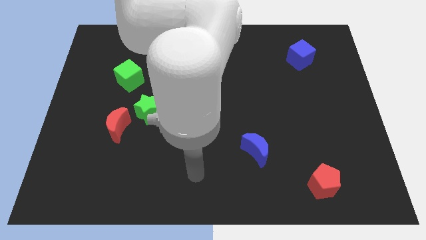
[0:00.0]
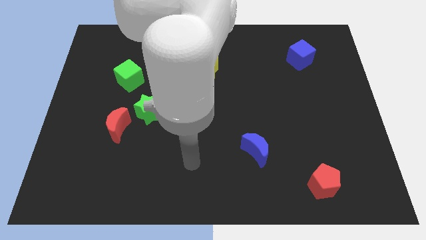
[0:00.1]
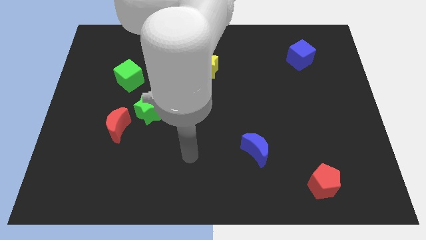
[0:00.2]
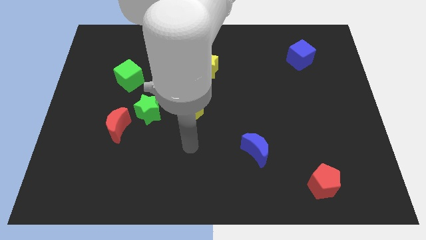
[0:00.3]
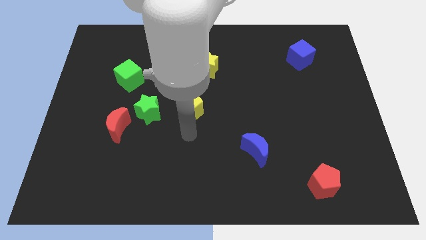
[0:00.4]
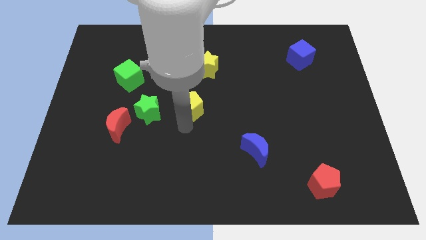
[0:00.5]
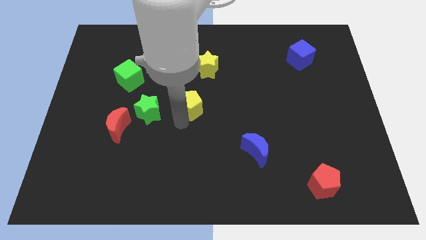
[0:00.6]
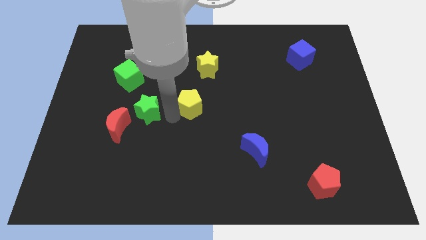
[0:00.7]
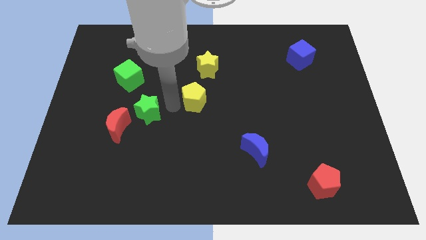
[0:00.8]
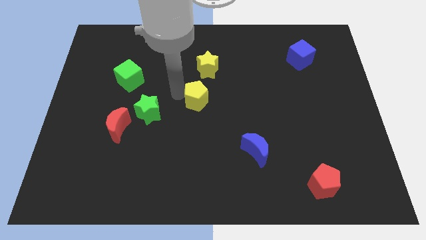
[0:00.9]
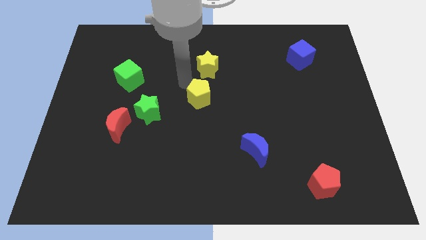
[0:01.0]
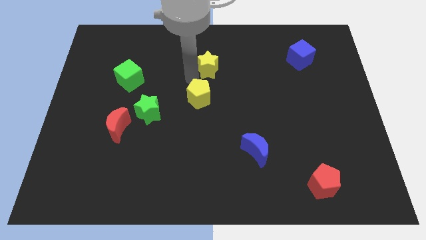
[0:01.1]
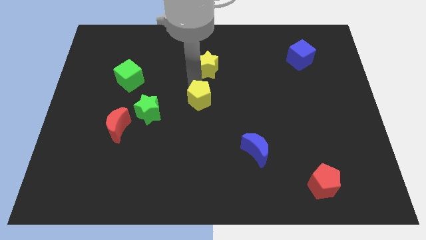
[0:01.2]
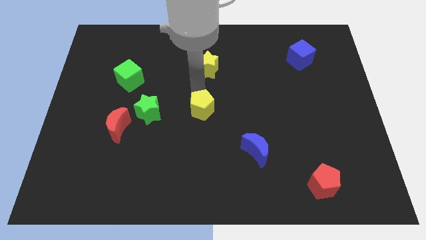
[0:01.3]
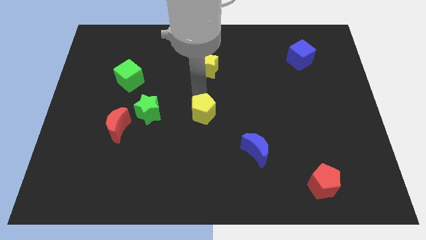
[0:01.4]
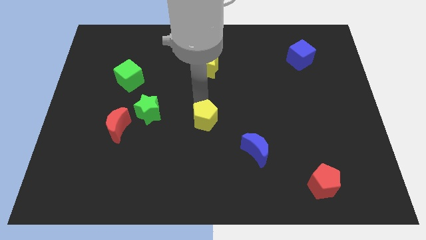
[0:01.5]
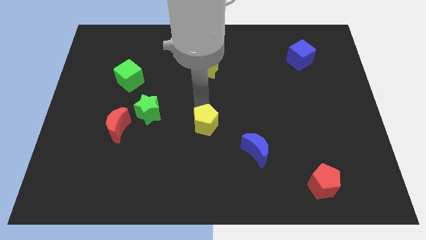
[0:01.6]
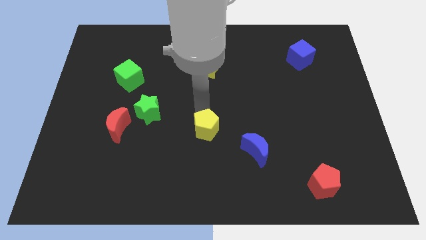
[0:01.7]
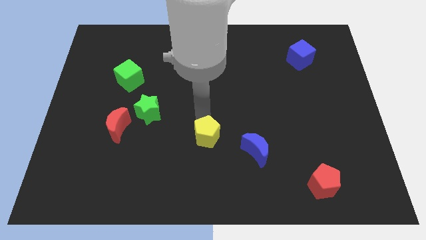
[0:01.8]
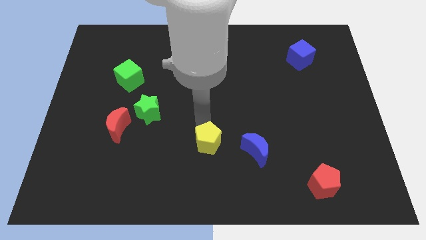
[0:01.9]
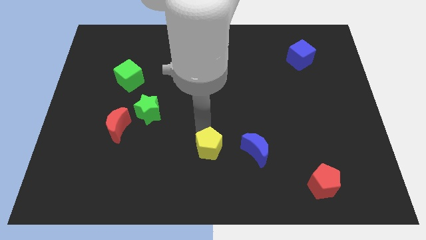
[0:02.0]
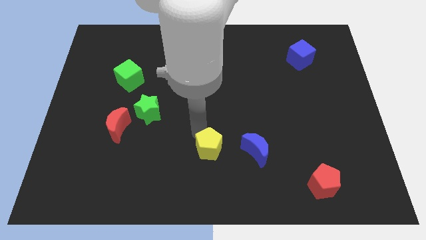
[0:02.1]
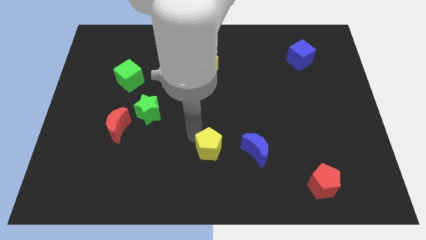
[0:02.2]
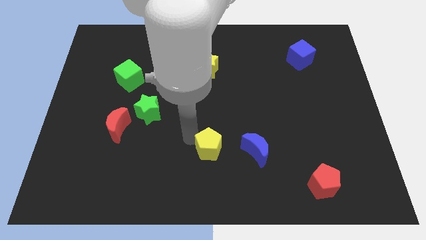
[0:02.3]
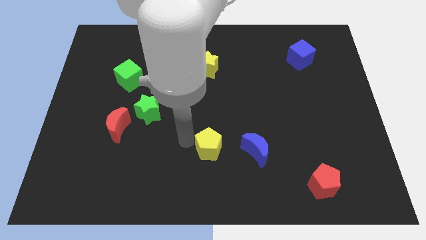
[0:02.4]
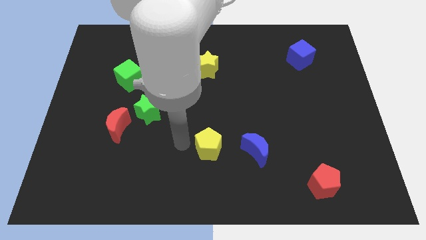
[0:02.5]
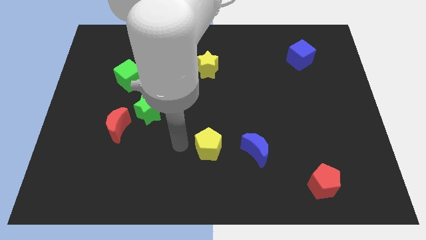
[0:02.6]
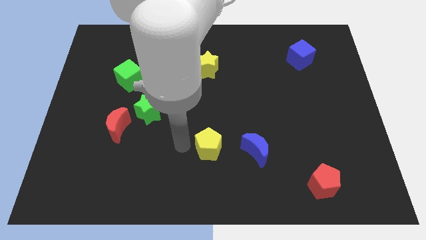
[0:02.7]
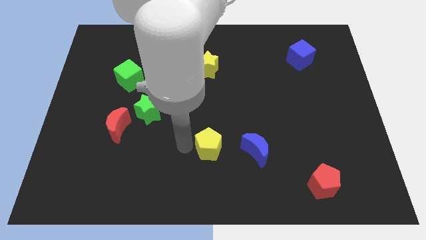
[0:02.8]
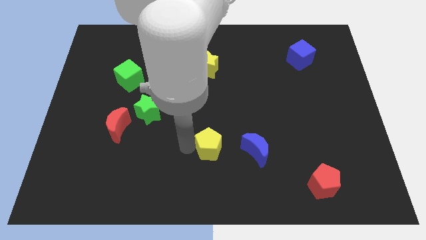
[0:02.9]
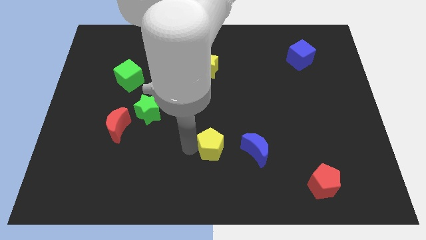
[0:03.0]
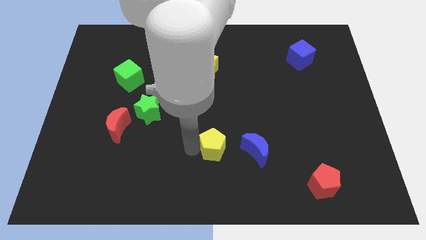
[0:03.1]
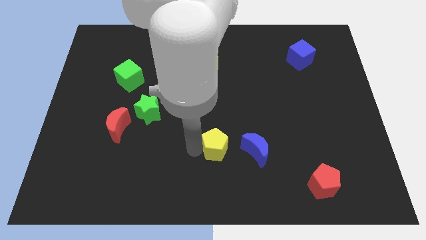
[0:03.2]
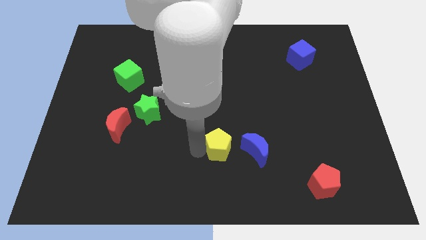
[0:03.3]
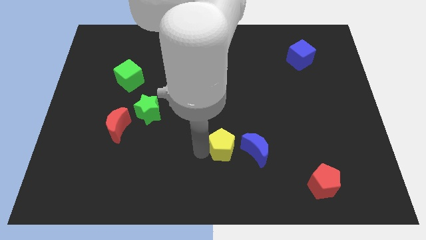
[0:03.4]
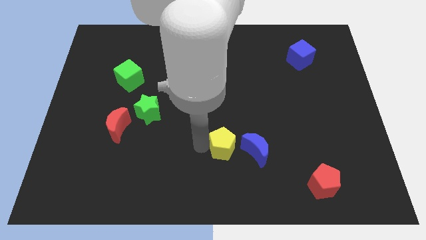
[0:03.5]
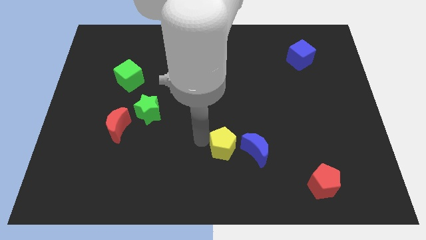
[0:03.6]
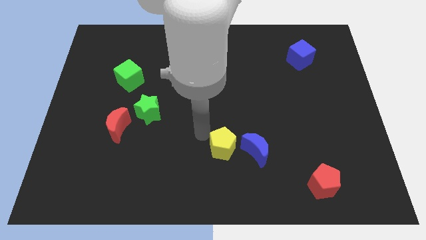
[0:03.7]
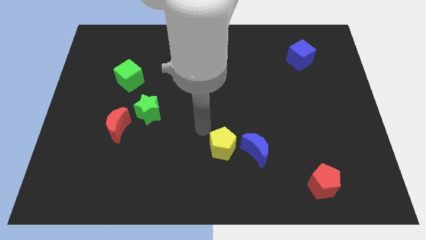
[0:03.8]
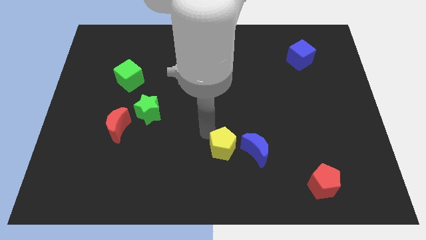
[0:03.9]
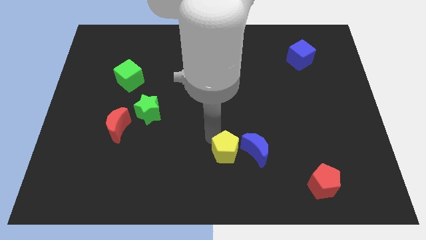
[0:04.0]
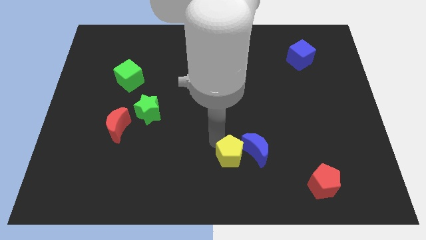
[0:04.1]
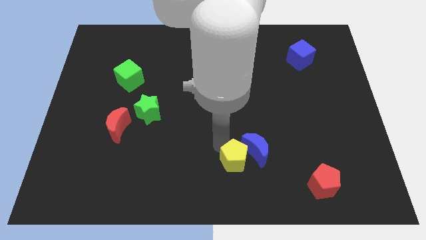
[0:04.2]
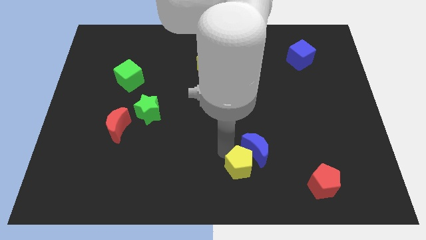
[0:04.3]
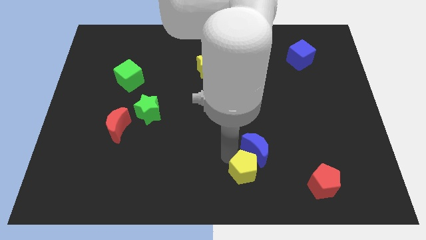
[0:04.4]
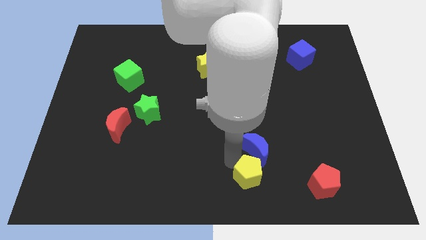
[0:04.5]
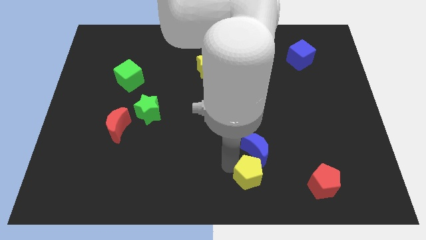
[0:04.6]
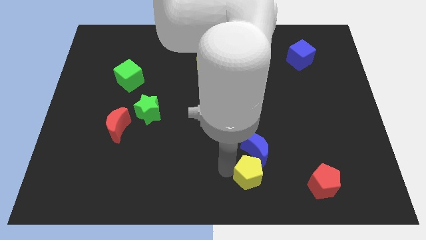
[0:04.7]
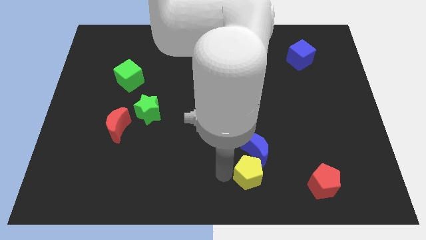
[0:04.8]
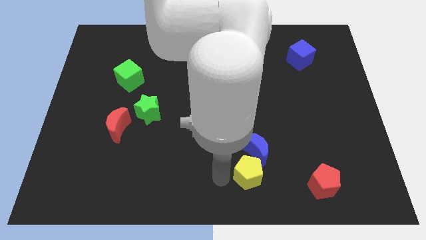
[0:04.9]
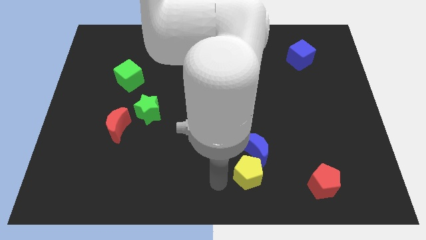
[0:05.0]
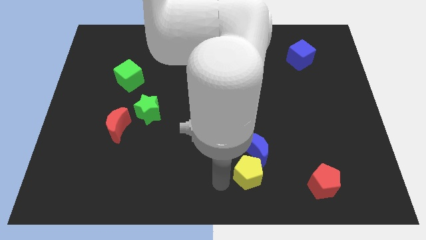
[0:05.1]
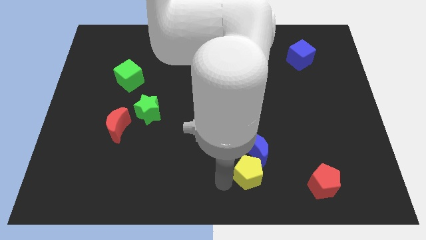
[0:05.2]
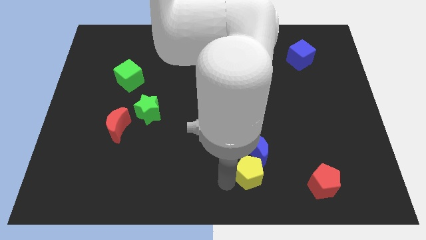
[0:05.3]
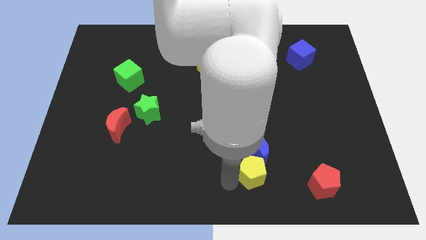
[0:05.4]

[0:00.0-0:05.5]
move the yellow pentagon to the bottom right side of the blue moon

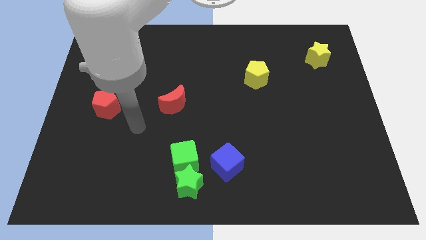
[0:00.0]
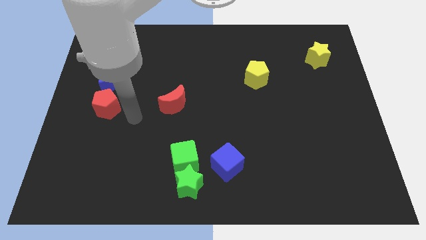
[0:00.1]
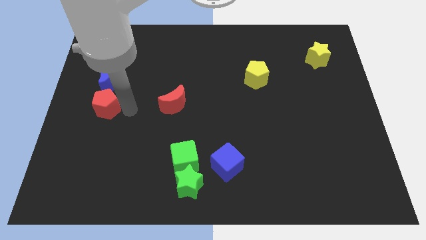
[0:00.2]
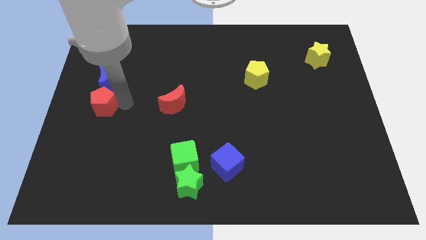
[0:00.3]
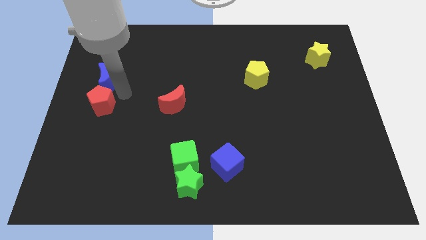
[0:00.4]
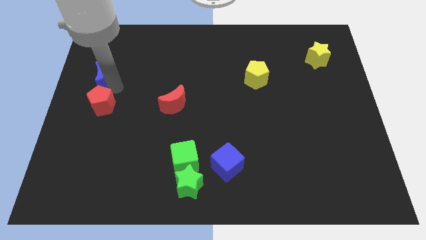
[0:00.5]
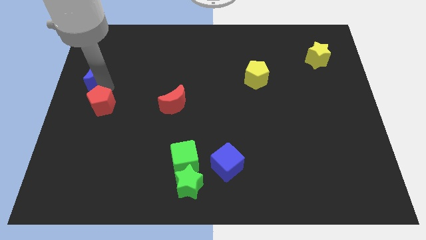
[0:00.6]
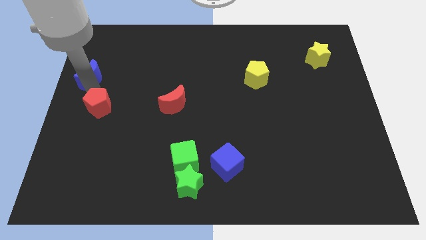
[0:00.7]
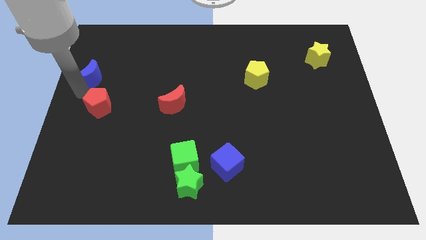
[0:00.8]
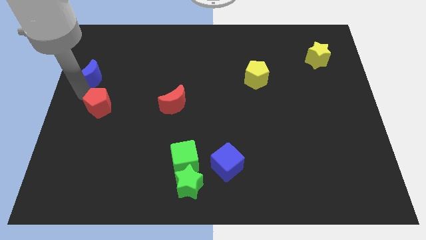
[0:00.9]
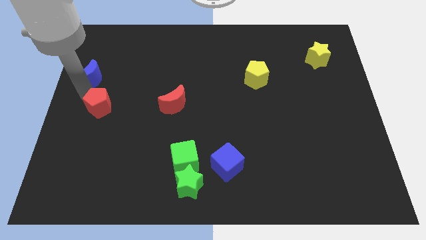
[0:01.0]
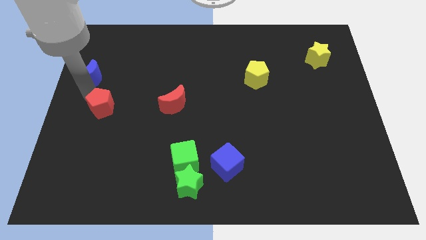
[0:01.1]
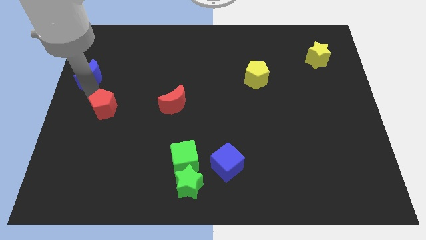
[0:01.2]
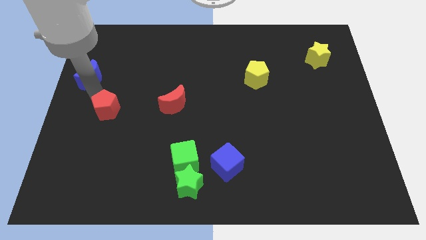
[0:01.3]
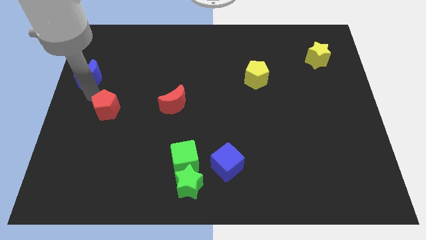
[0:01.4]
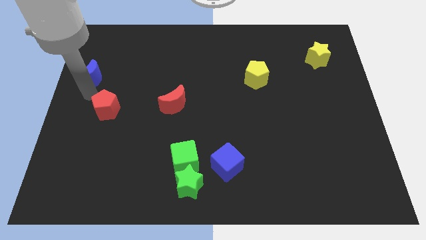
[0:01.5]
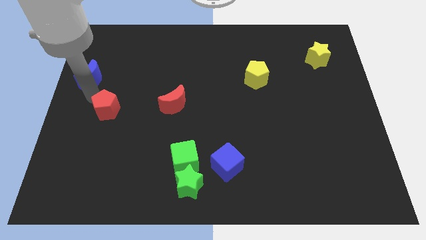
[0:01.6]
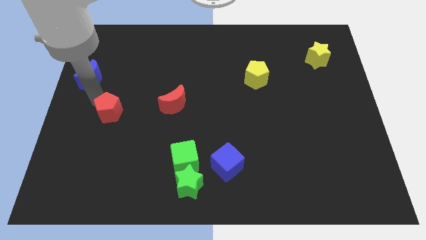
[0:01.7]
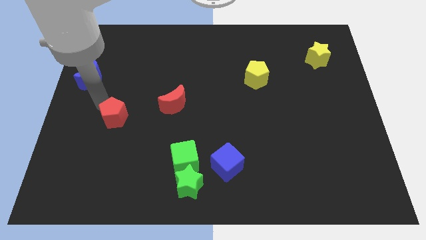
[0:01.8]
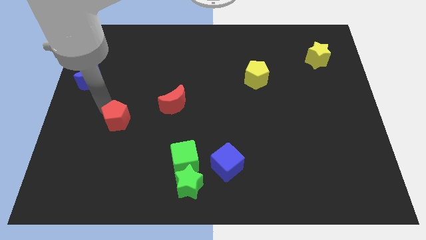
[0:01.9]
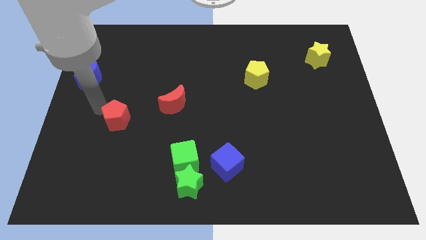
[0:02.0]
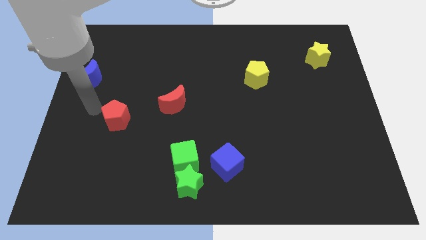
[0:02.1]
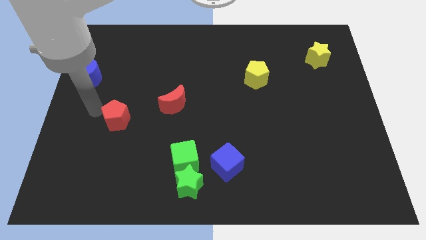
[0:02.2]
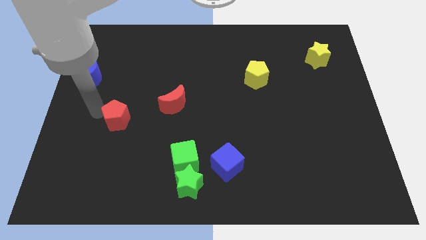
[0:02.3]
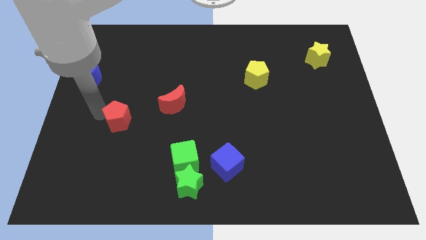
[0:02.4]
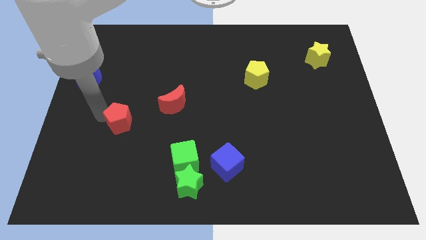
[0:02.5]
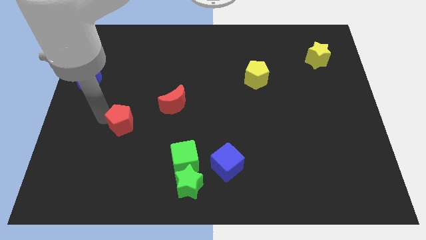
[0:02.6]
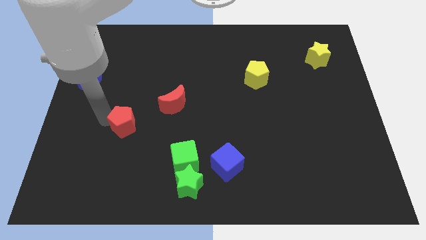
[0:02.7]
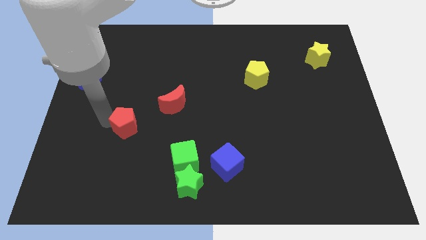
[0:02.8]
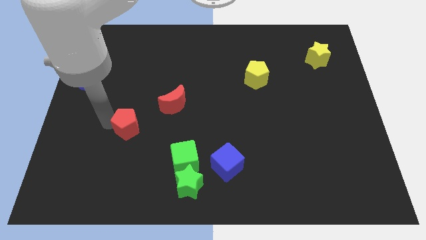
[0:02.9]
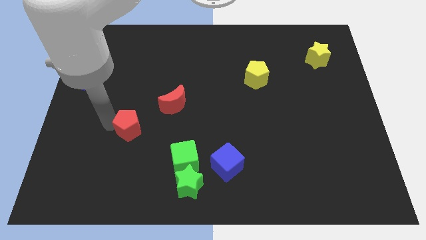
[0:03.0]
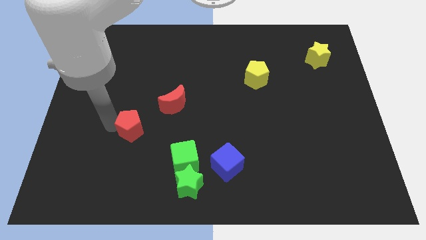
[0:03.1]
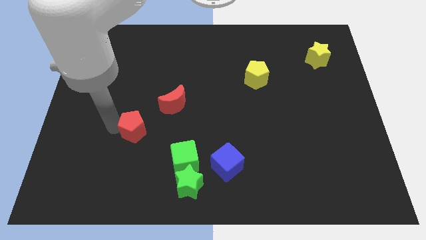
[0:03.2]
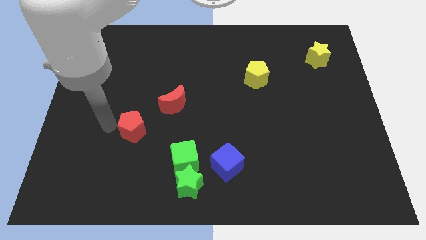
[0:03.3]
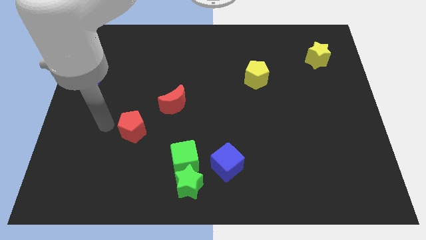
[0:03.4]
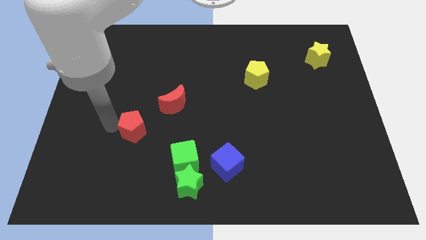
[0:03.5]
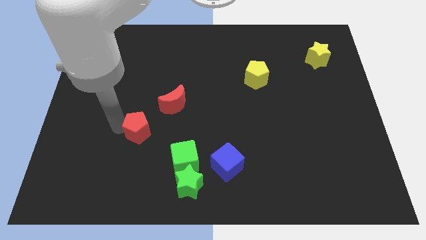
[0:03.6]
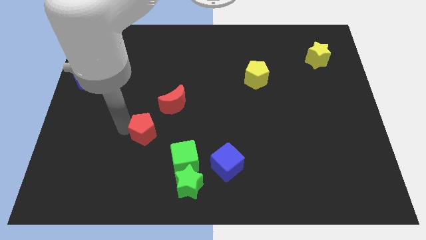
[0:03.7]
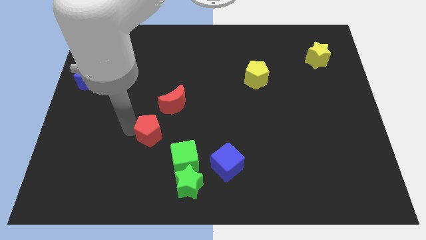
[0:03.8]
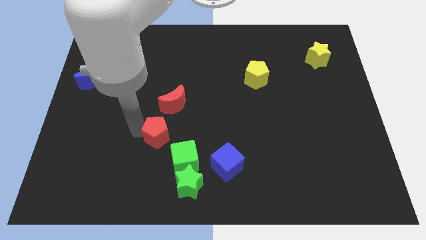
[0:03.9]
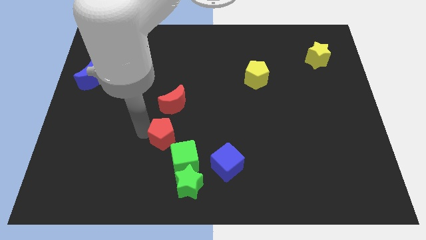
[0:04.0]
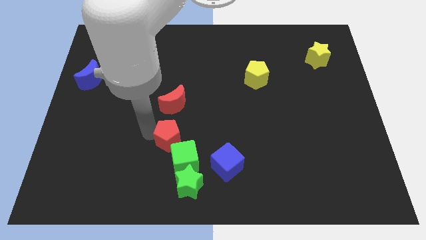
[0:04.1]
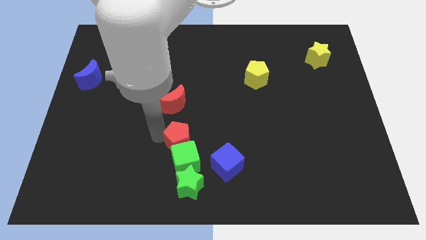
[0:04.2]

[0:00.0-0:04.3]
slide the red pentagon to the top left side of the blue cube
